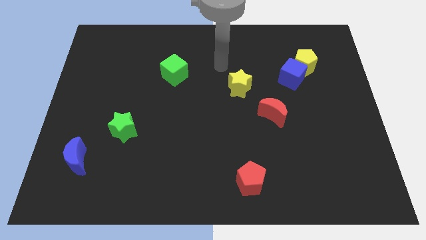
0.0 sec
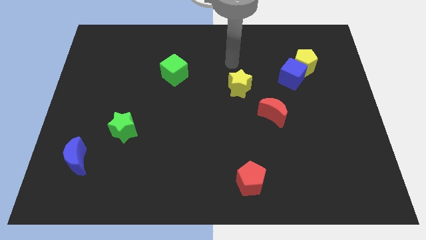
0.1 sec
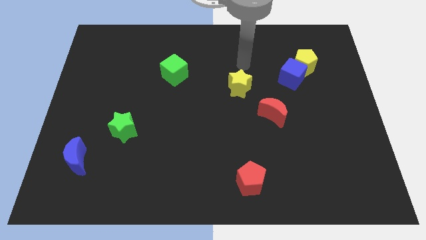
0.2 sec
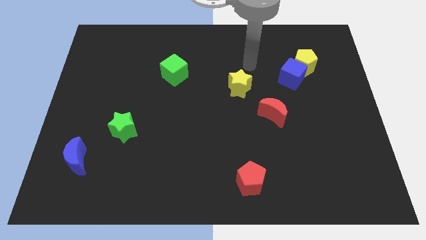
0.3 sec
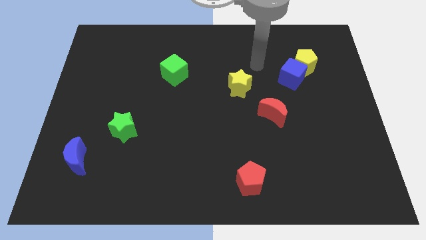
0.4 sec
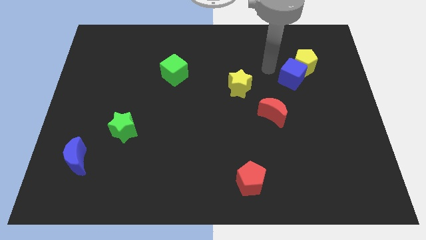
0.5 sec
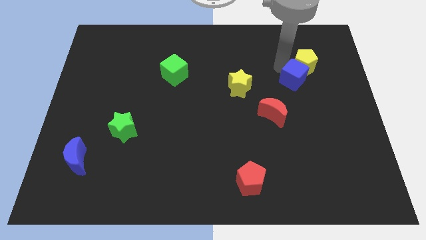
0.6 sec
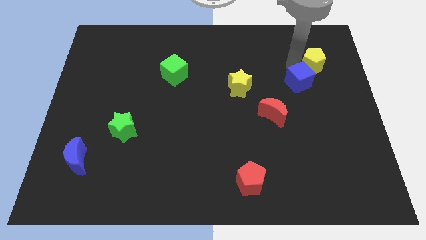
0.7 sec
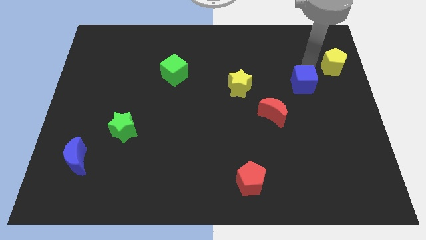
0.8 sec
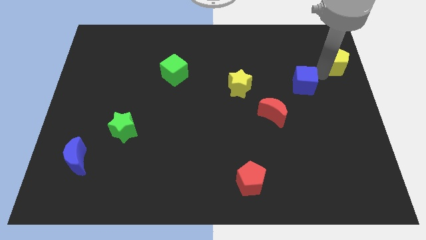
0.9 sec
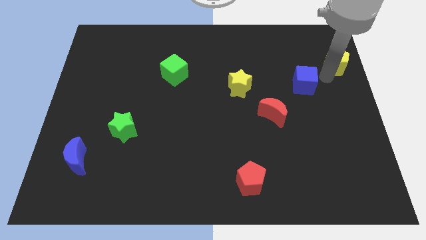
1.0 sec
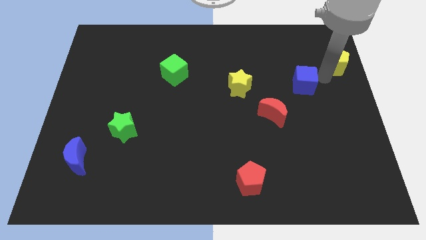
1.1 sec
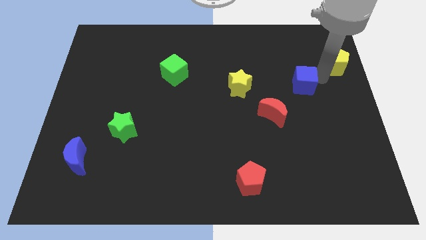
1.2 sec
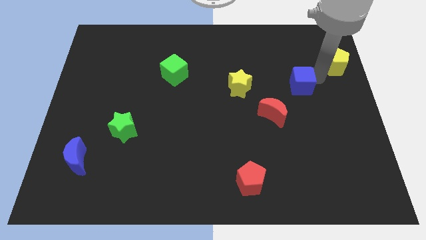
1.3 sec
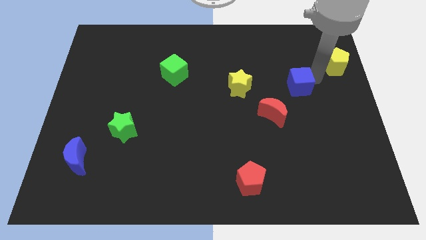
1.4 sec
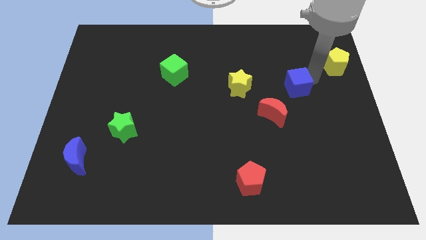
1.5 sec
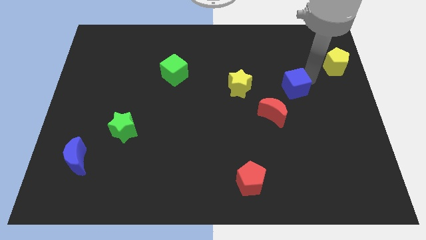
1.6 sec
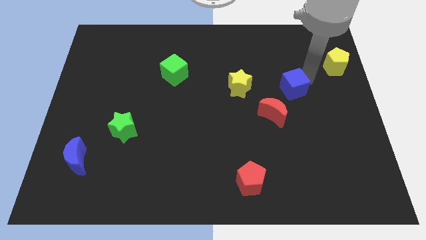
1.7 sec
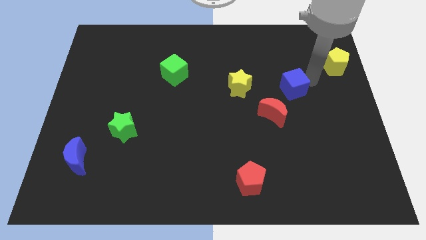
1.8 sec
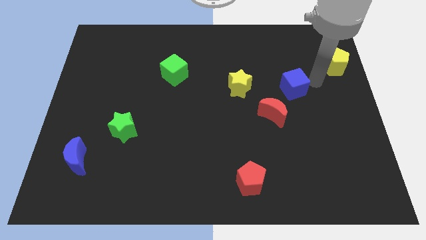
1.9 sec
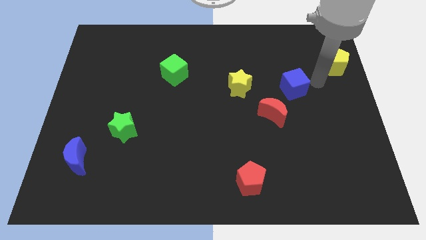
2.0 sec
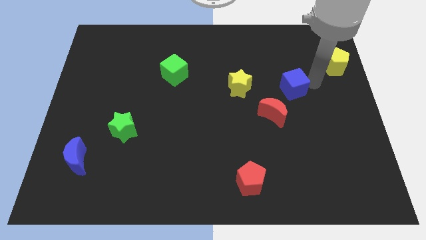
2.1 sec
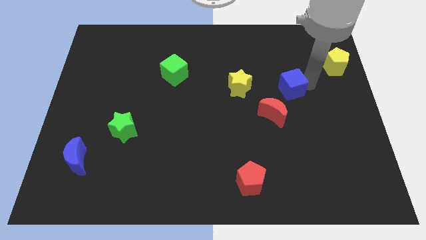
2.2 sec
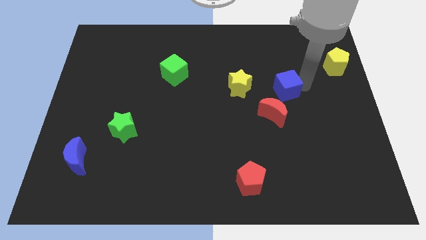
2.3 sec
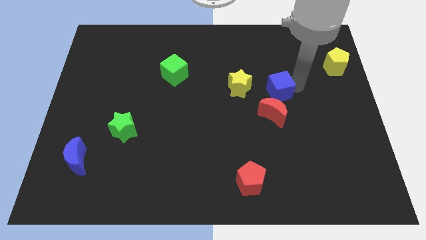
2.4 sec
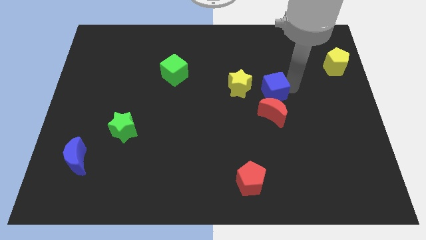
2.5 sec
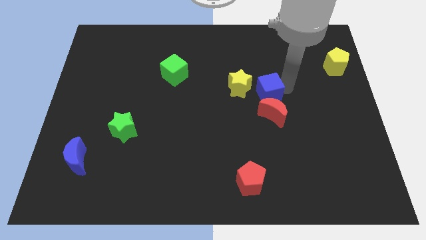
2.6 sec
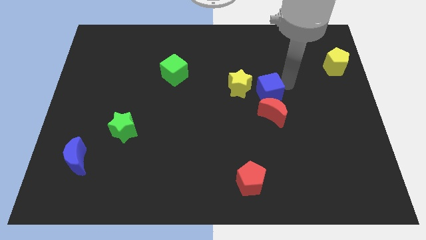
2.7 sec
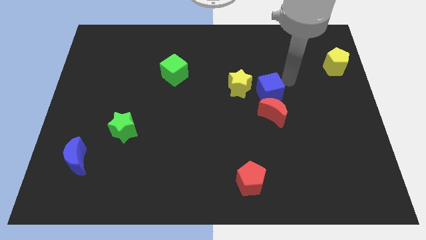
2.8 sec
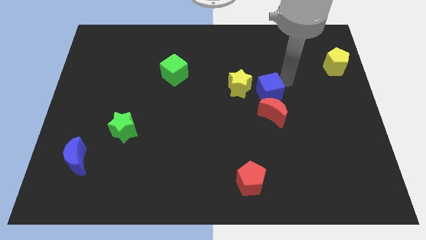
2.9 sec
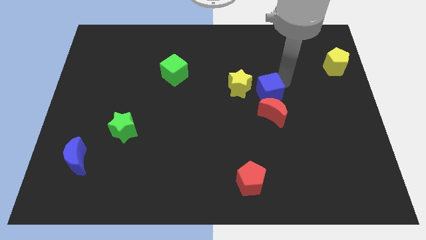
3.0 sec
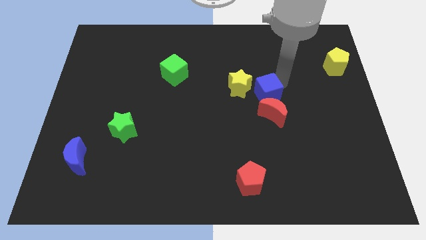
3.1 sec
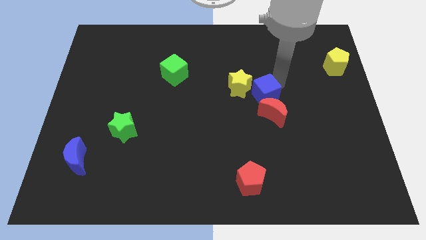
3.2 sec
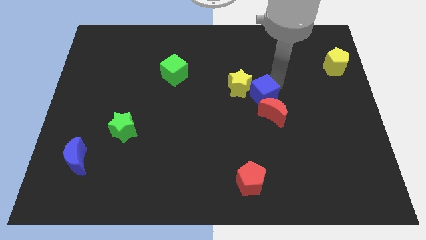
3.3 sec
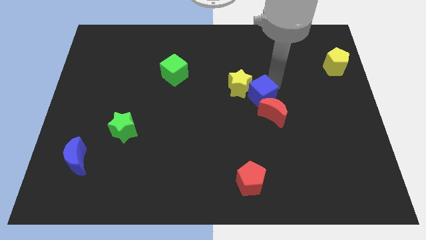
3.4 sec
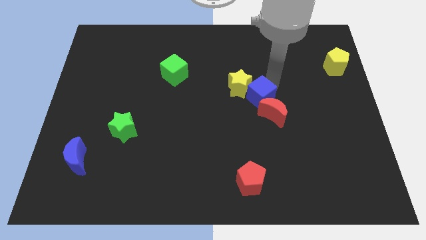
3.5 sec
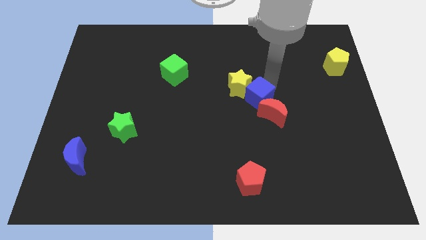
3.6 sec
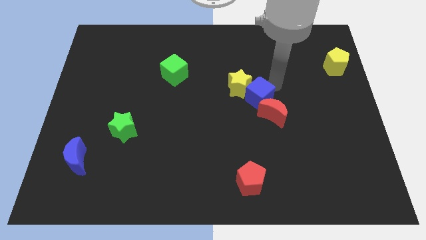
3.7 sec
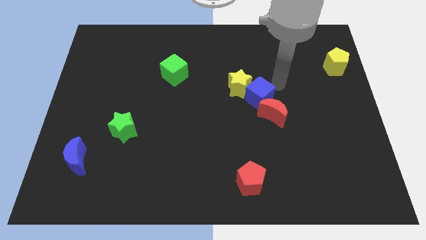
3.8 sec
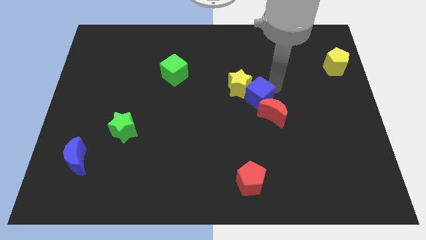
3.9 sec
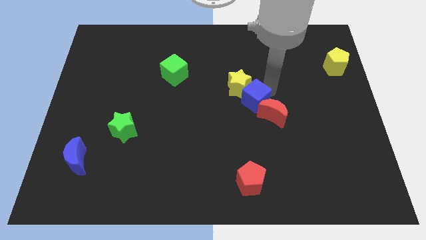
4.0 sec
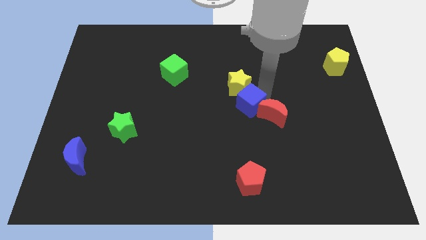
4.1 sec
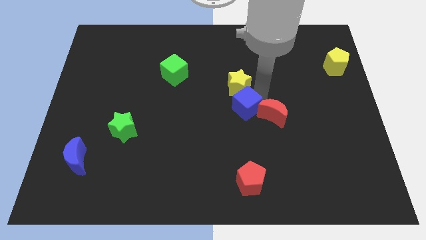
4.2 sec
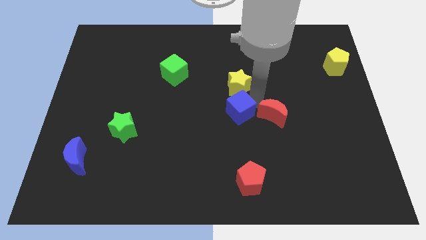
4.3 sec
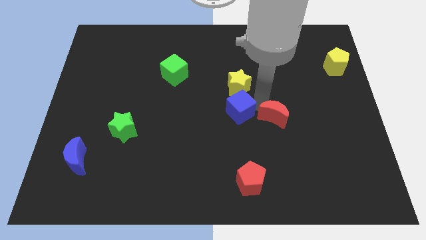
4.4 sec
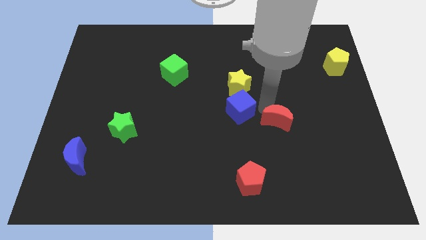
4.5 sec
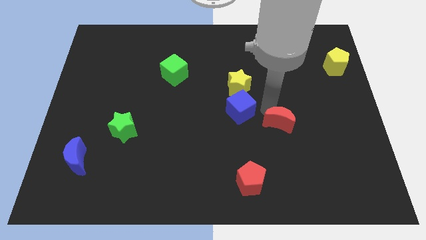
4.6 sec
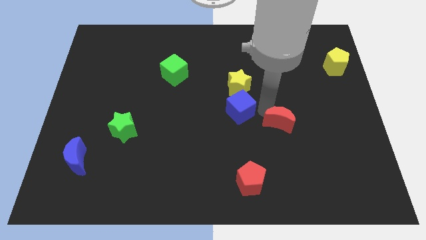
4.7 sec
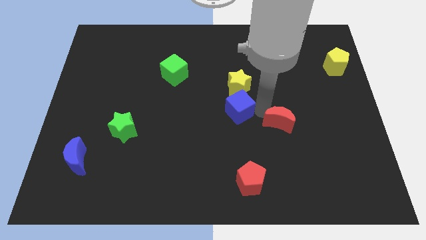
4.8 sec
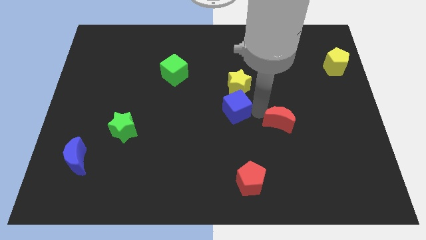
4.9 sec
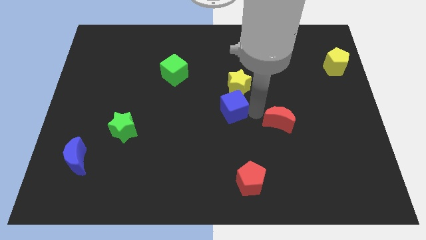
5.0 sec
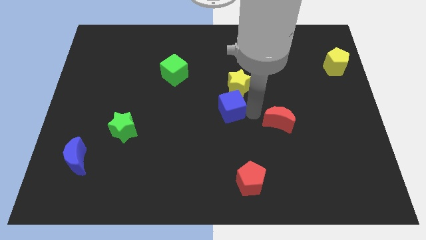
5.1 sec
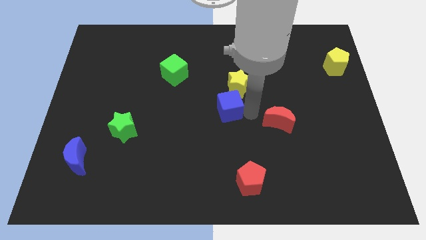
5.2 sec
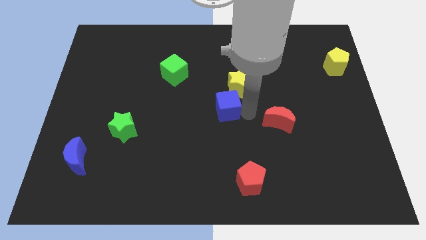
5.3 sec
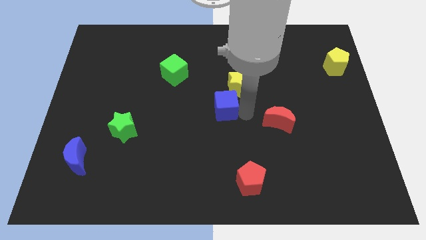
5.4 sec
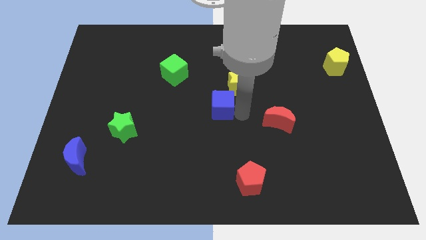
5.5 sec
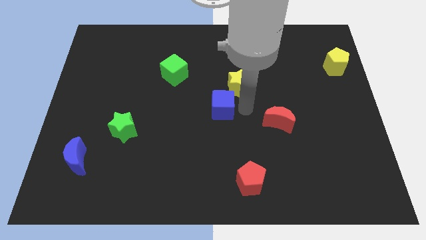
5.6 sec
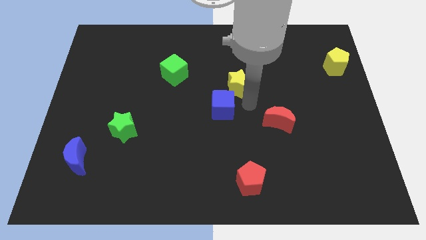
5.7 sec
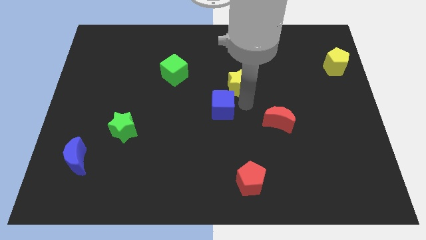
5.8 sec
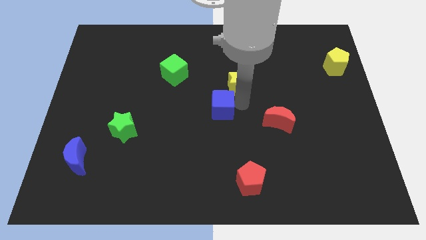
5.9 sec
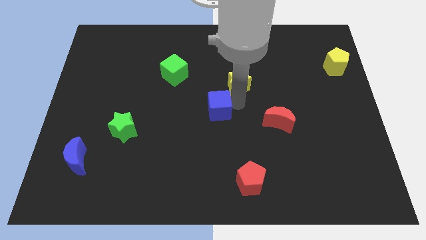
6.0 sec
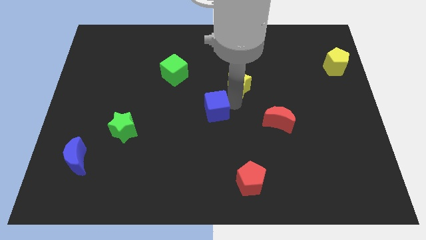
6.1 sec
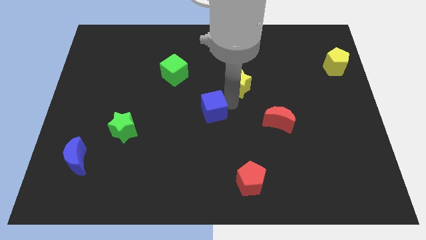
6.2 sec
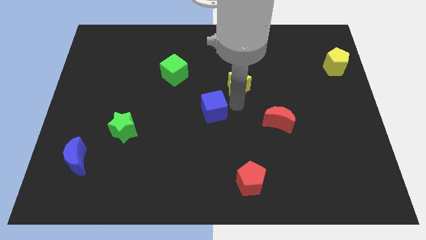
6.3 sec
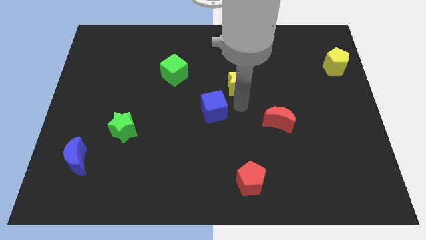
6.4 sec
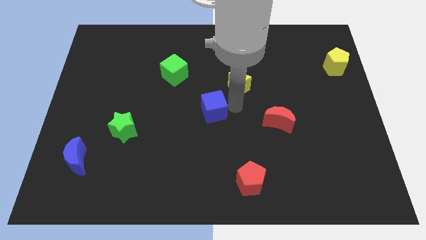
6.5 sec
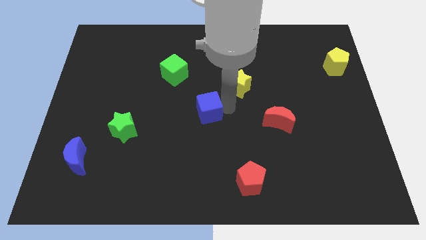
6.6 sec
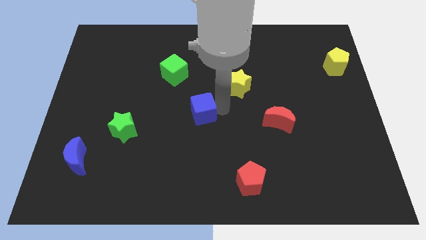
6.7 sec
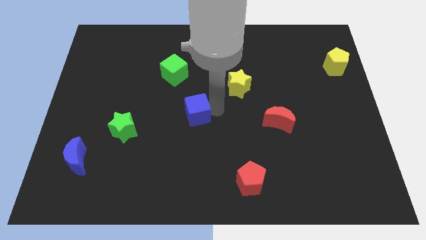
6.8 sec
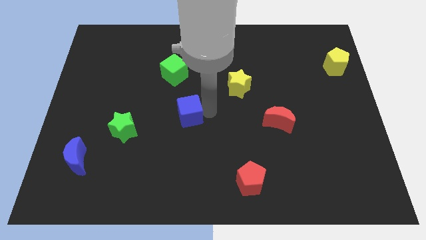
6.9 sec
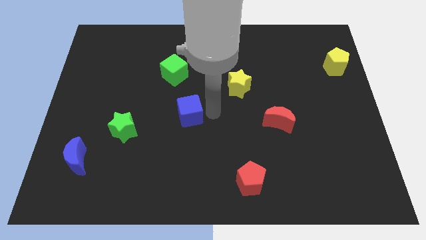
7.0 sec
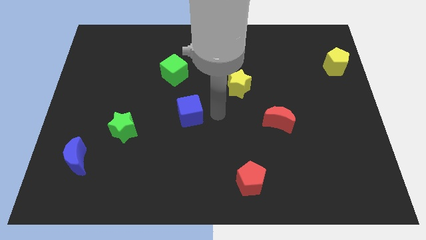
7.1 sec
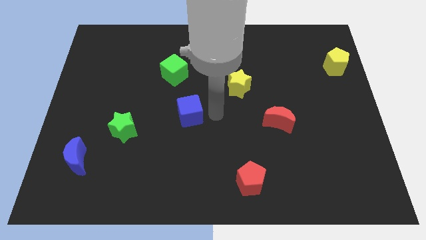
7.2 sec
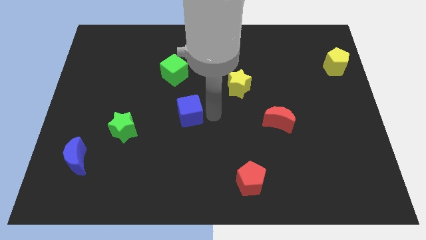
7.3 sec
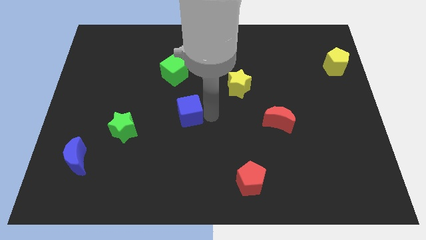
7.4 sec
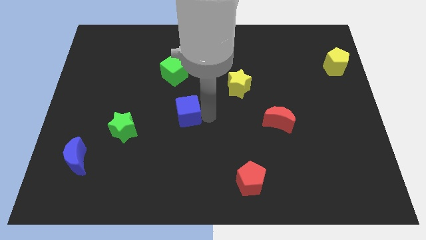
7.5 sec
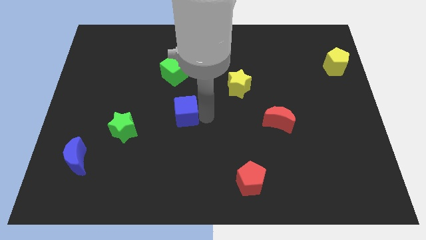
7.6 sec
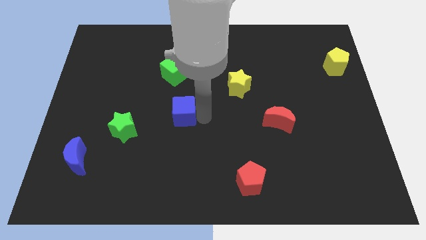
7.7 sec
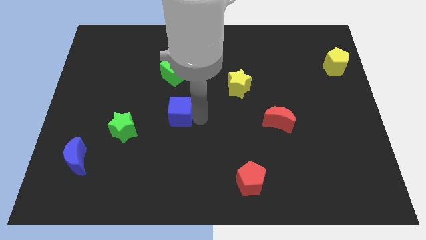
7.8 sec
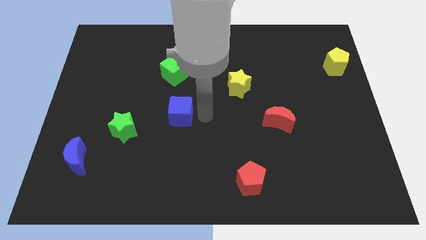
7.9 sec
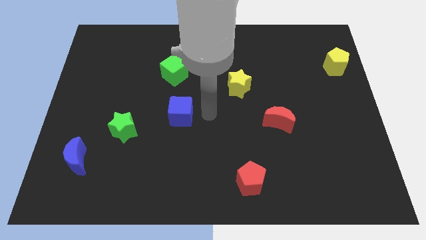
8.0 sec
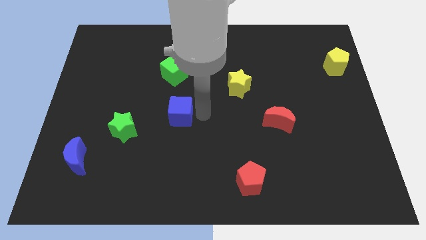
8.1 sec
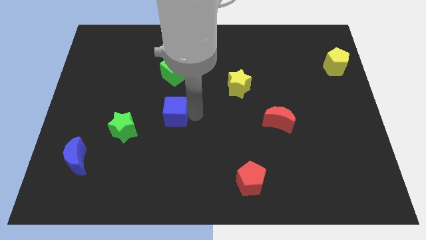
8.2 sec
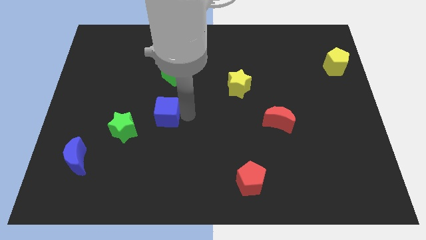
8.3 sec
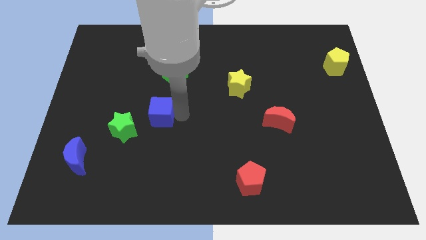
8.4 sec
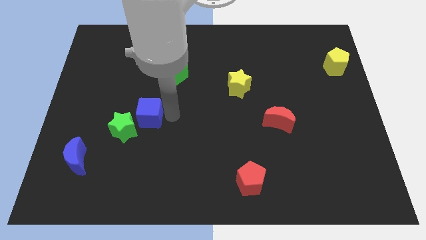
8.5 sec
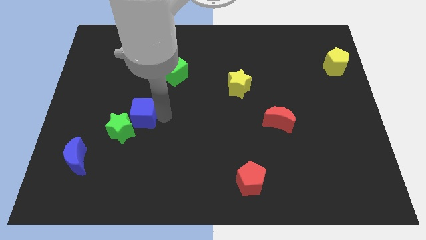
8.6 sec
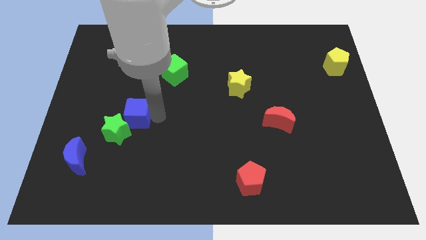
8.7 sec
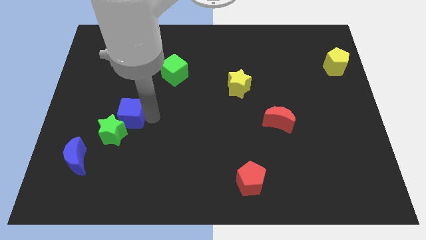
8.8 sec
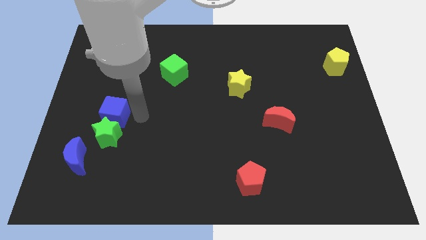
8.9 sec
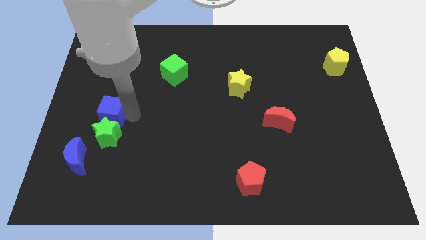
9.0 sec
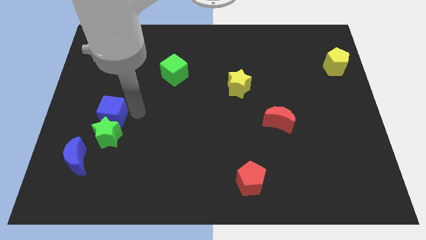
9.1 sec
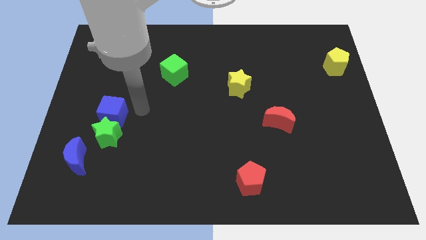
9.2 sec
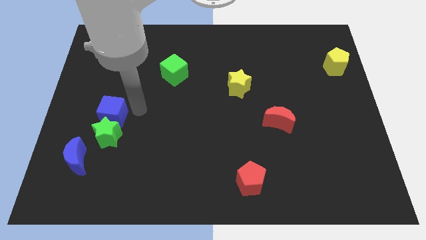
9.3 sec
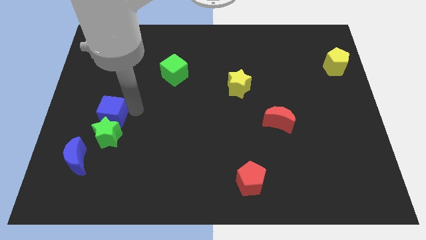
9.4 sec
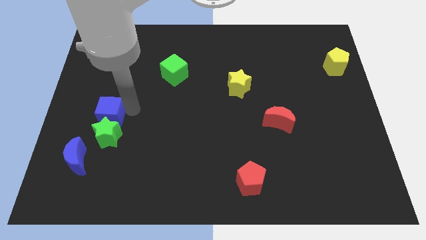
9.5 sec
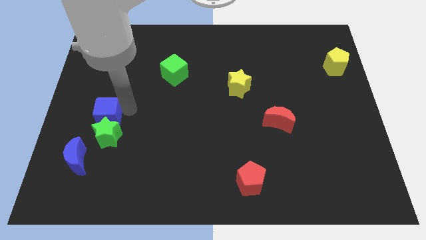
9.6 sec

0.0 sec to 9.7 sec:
push the blue cube above the blue moon
